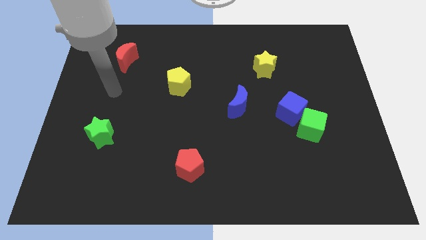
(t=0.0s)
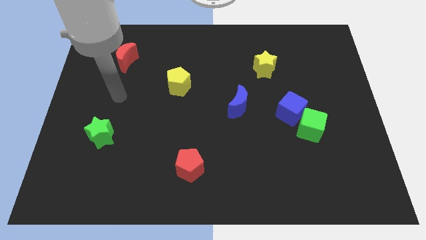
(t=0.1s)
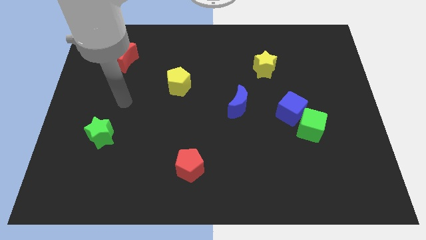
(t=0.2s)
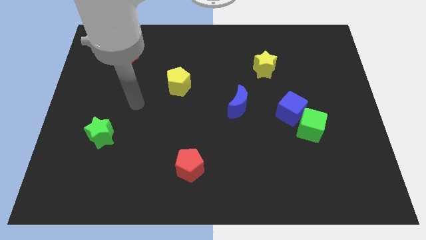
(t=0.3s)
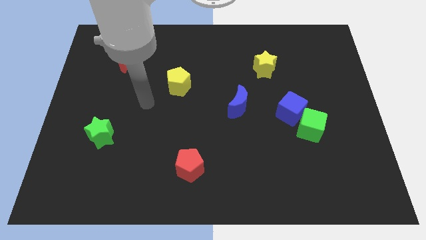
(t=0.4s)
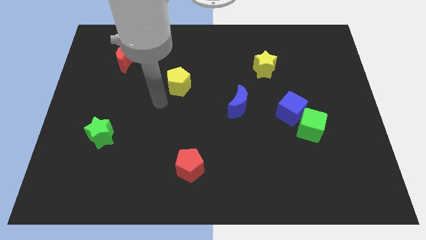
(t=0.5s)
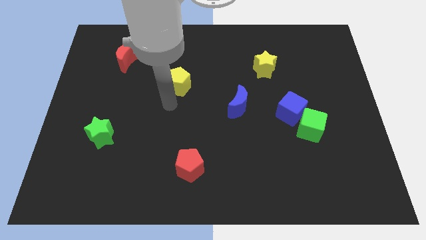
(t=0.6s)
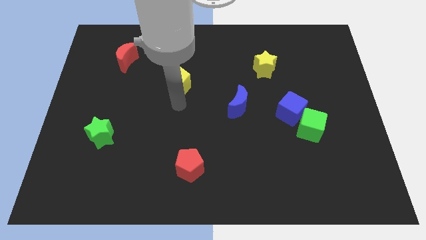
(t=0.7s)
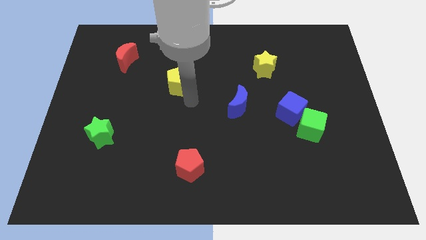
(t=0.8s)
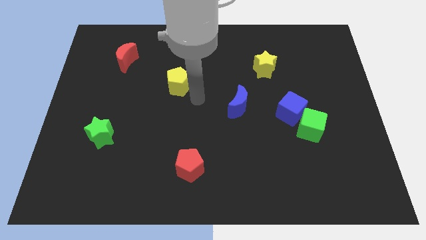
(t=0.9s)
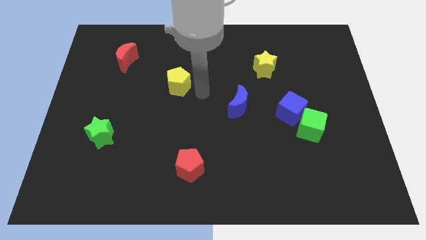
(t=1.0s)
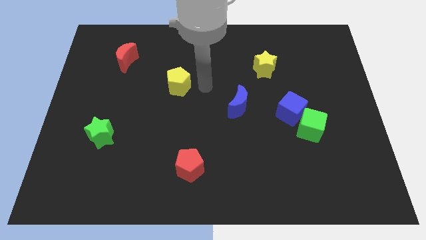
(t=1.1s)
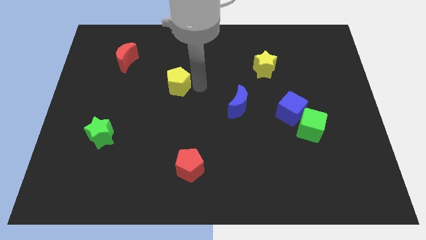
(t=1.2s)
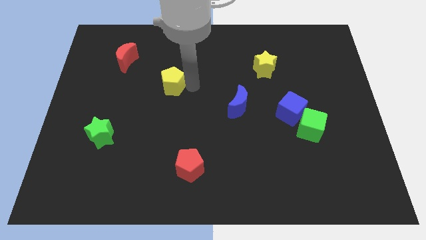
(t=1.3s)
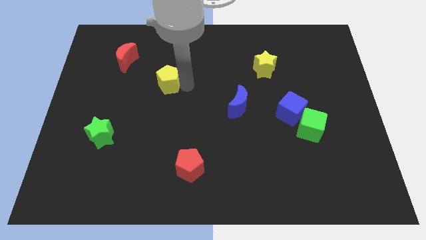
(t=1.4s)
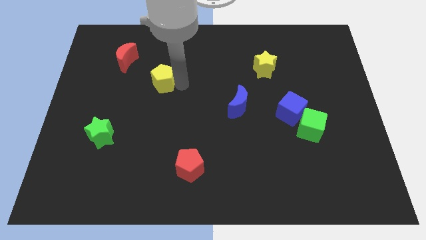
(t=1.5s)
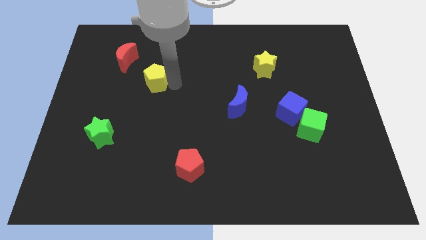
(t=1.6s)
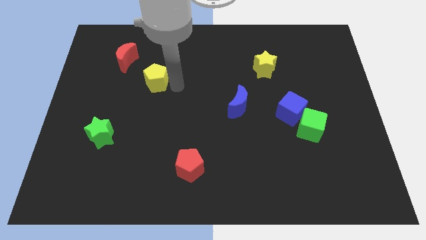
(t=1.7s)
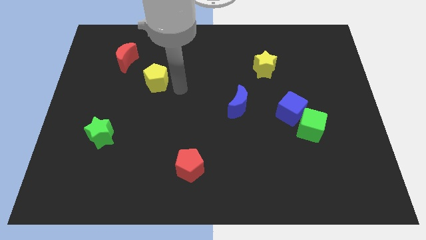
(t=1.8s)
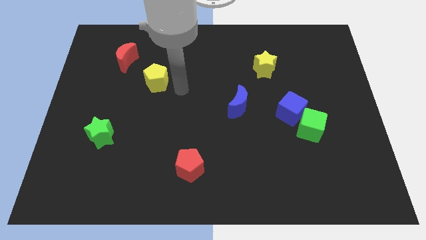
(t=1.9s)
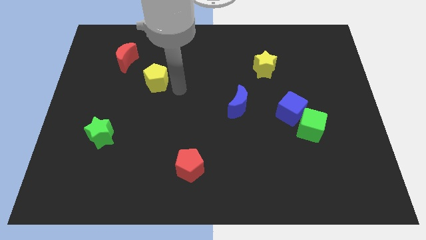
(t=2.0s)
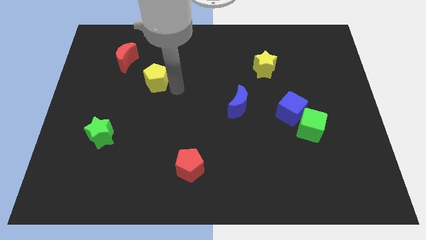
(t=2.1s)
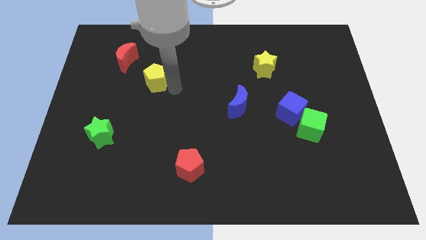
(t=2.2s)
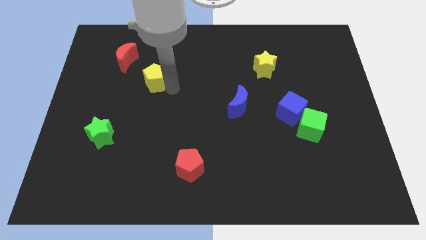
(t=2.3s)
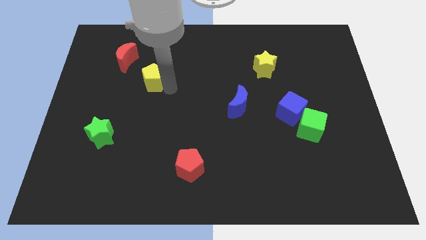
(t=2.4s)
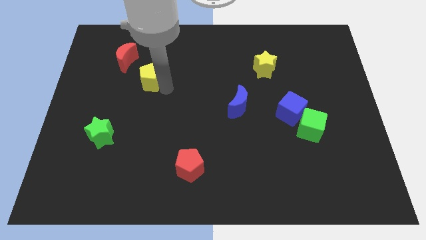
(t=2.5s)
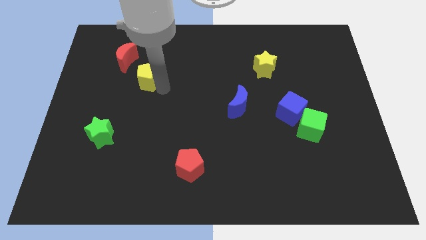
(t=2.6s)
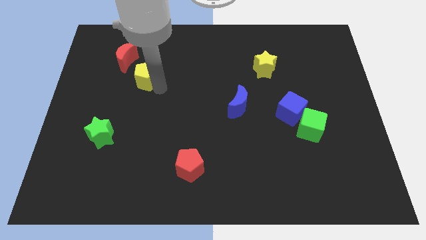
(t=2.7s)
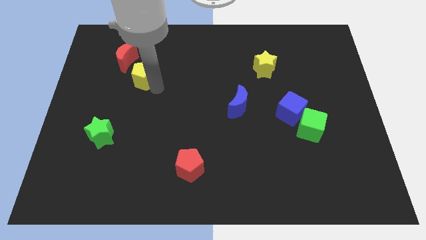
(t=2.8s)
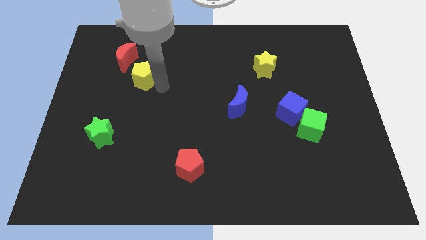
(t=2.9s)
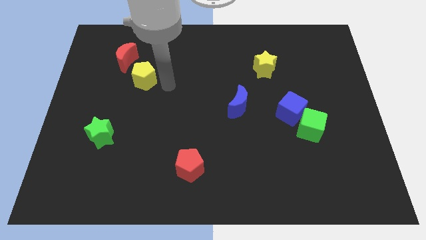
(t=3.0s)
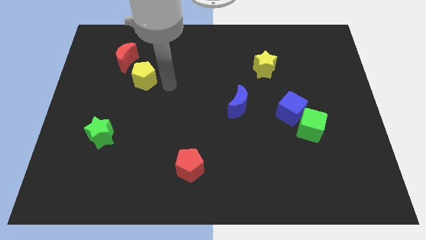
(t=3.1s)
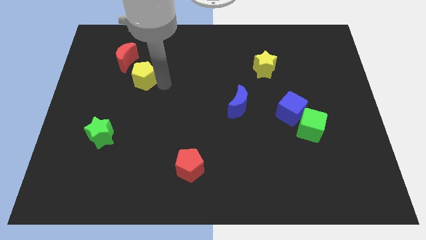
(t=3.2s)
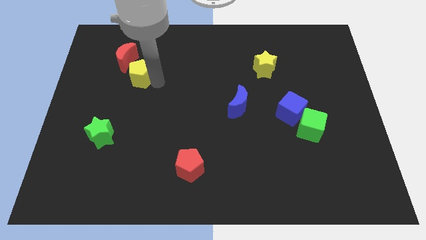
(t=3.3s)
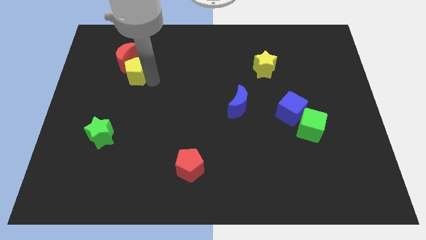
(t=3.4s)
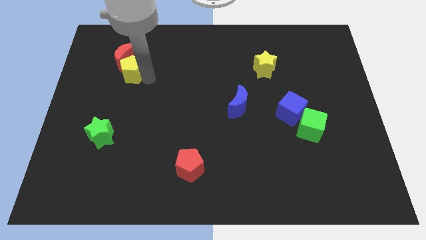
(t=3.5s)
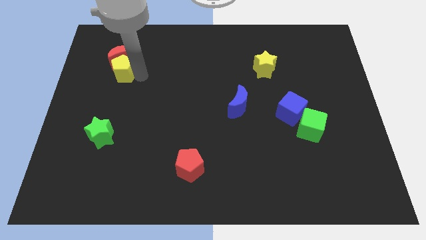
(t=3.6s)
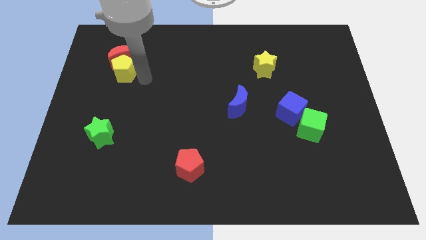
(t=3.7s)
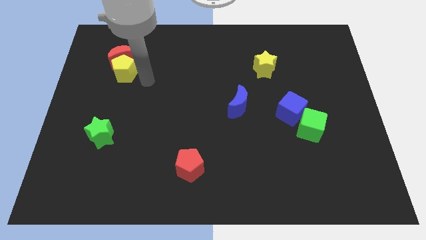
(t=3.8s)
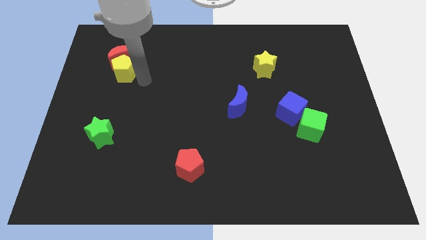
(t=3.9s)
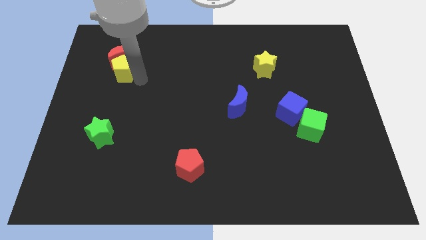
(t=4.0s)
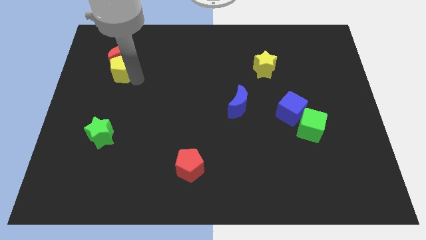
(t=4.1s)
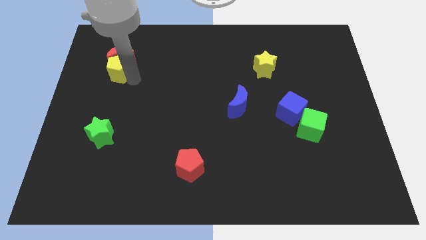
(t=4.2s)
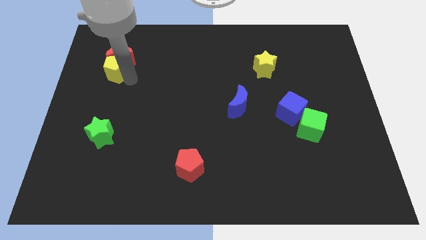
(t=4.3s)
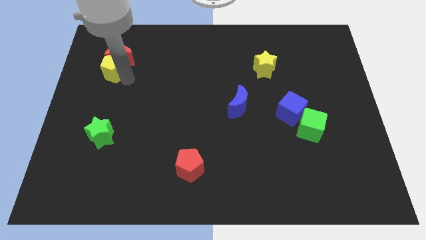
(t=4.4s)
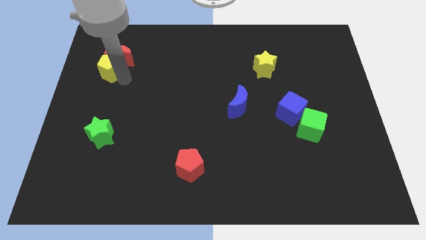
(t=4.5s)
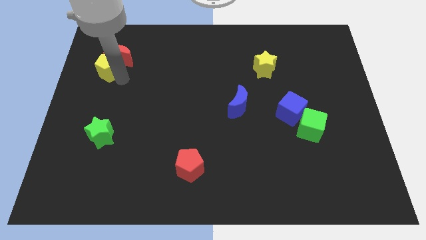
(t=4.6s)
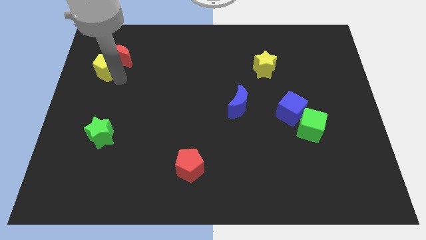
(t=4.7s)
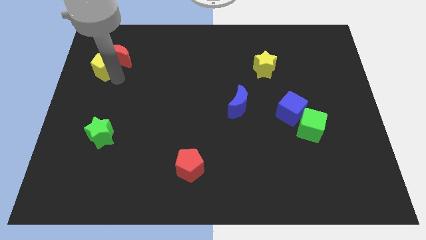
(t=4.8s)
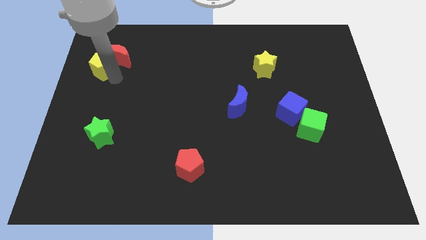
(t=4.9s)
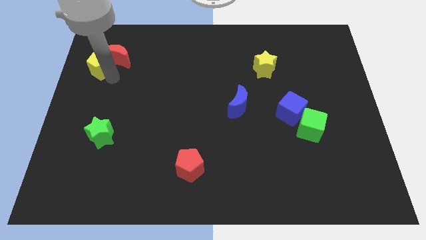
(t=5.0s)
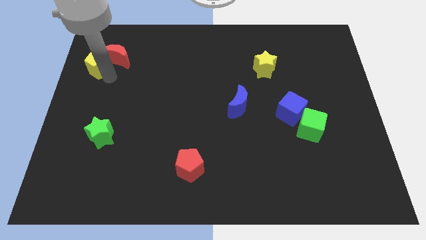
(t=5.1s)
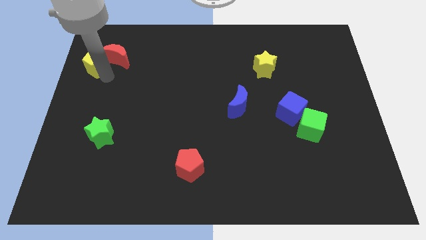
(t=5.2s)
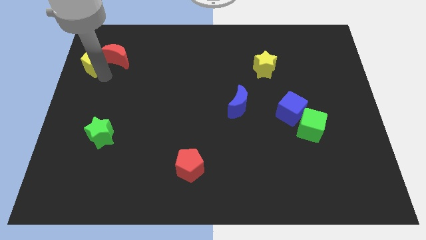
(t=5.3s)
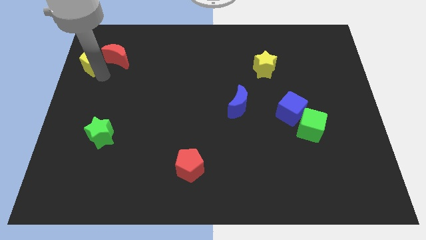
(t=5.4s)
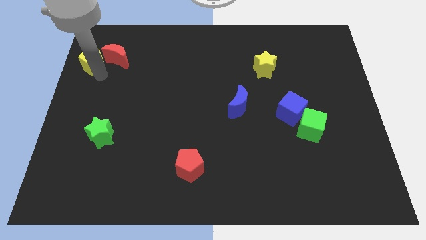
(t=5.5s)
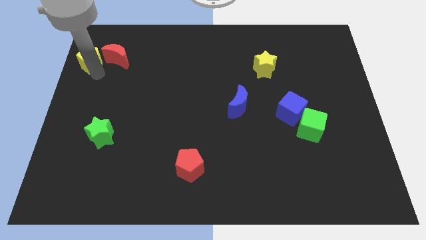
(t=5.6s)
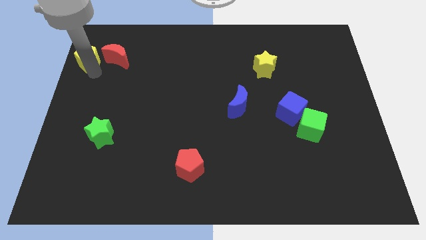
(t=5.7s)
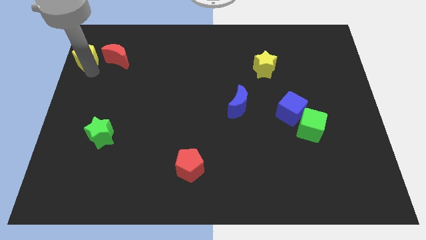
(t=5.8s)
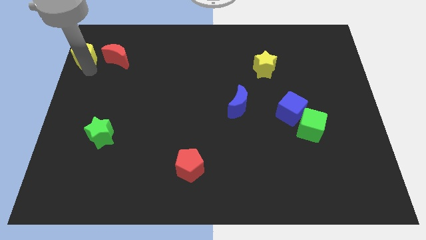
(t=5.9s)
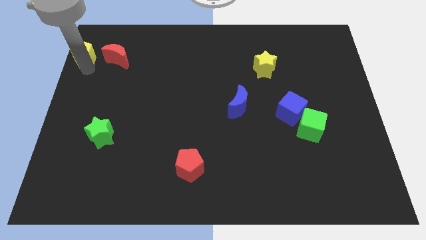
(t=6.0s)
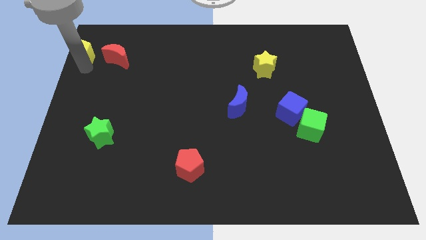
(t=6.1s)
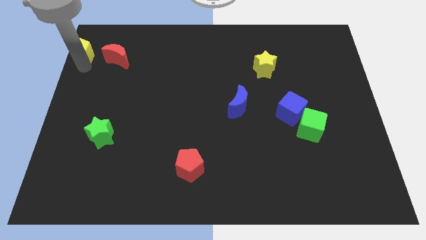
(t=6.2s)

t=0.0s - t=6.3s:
put the yellow pentagon to the top left of the board

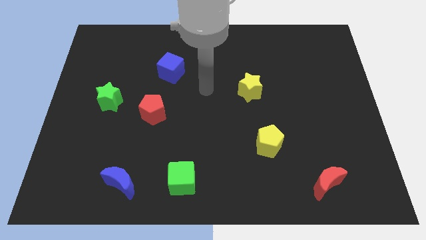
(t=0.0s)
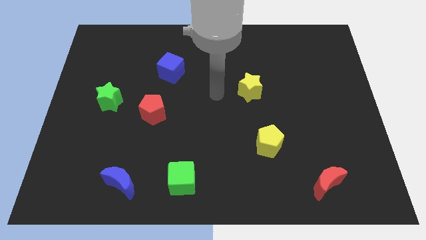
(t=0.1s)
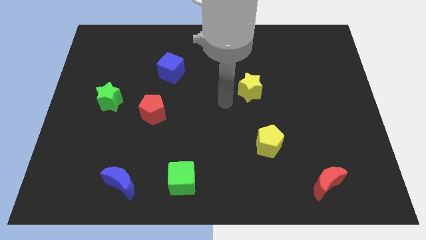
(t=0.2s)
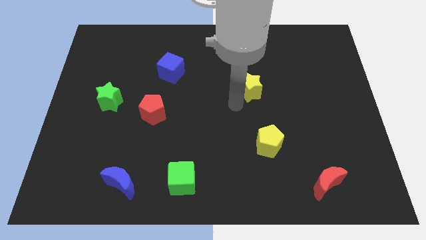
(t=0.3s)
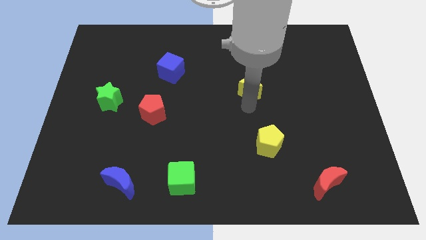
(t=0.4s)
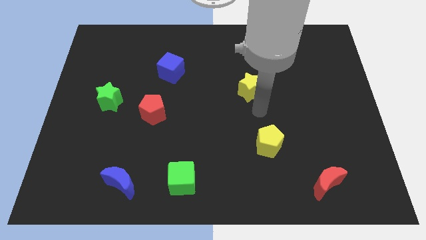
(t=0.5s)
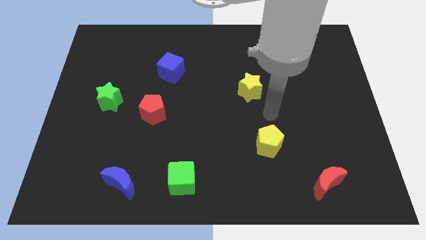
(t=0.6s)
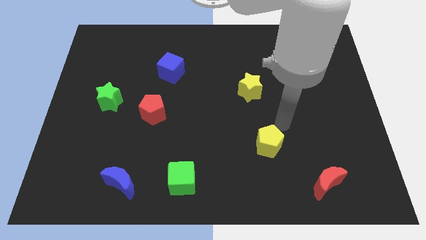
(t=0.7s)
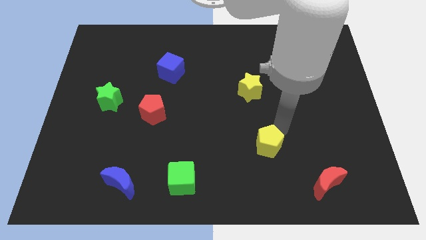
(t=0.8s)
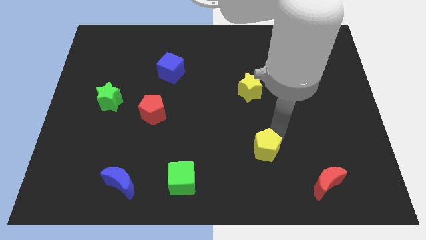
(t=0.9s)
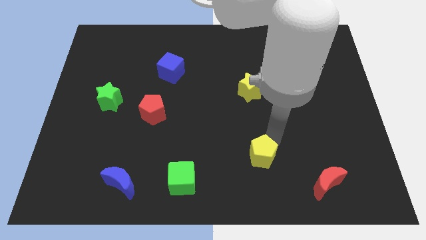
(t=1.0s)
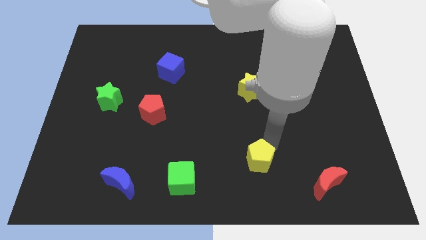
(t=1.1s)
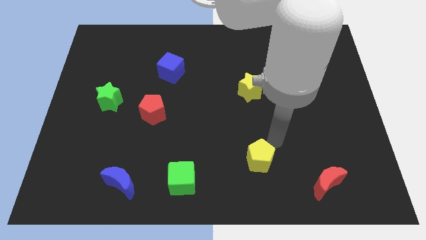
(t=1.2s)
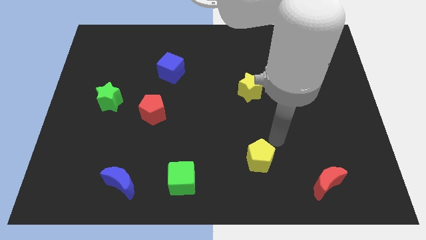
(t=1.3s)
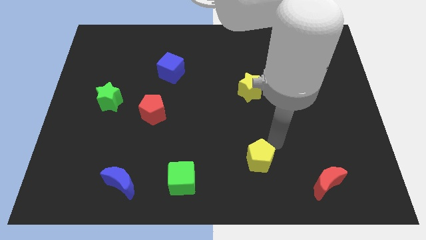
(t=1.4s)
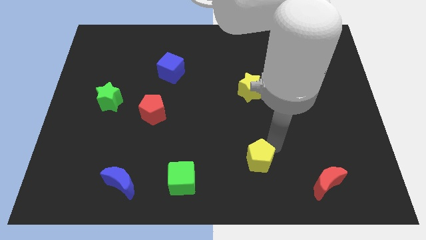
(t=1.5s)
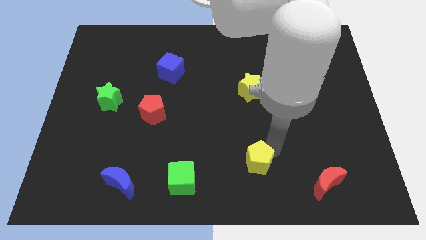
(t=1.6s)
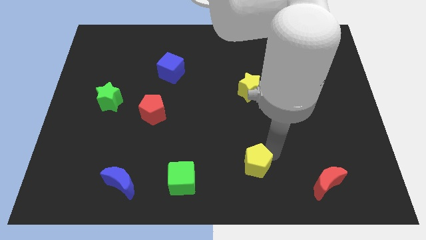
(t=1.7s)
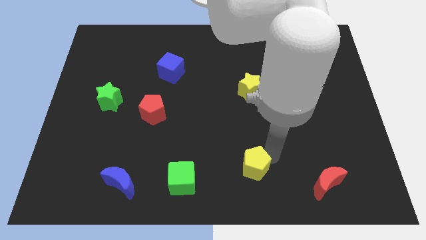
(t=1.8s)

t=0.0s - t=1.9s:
slide the yellow pentagon to the bottom side
